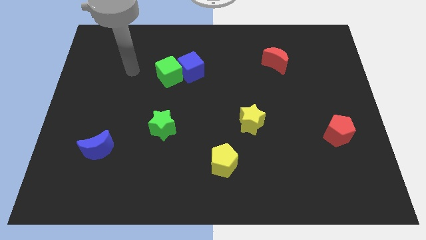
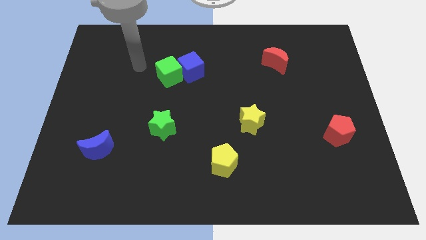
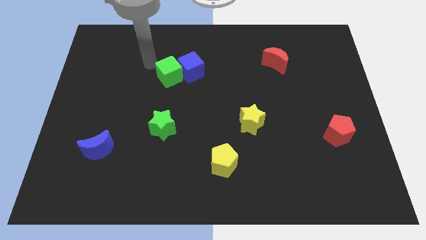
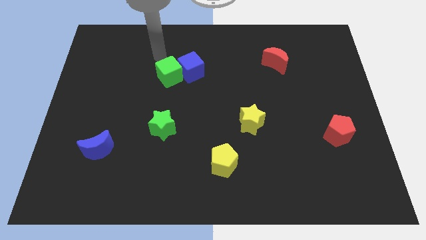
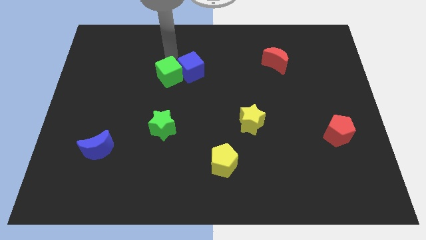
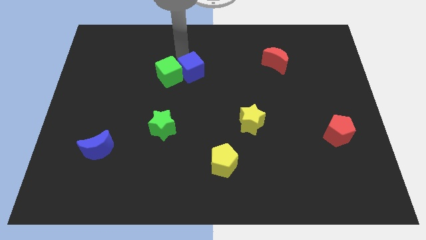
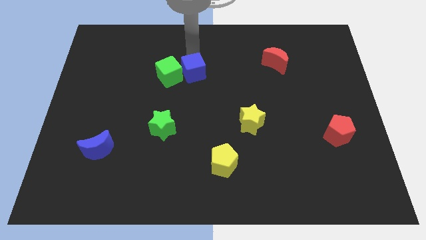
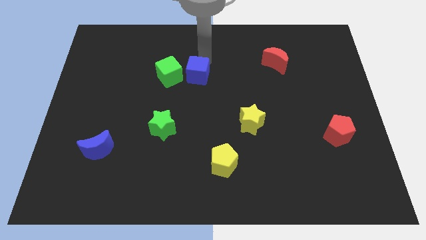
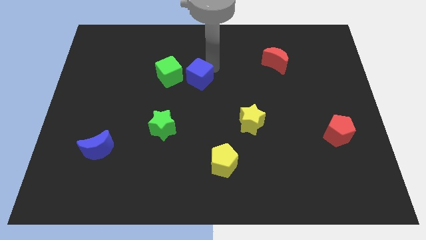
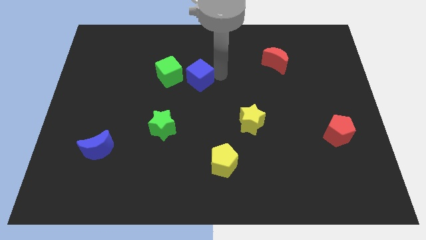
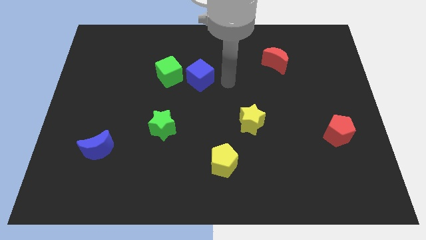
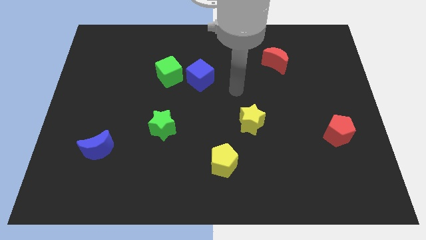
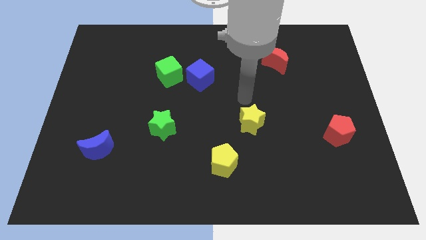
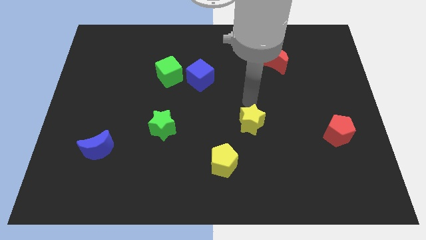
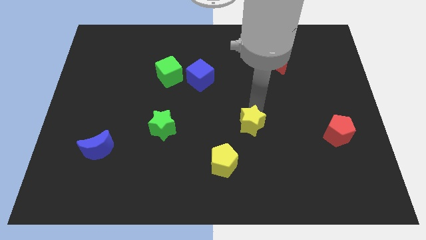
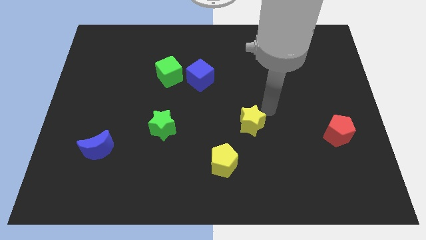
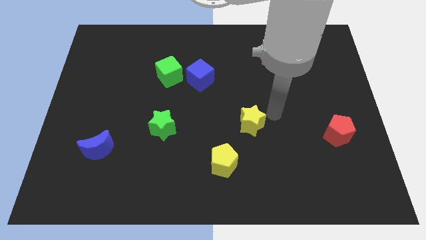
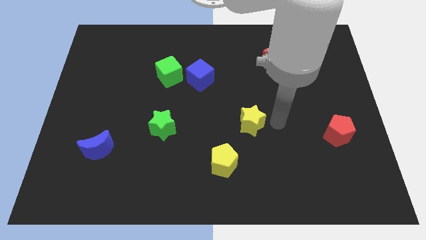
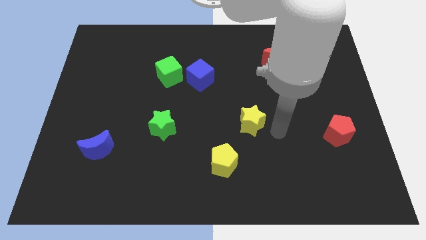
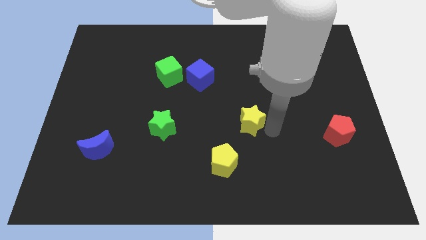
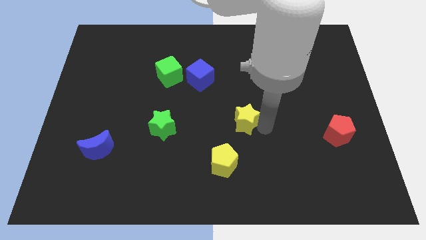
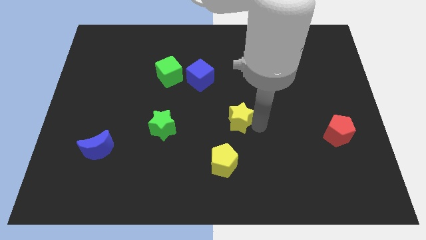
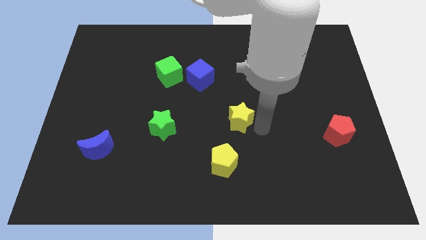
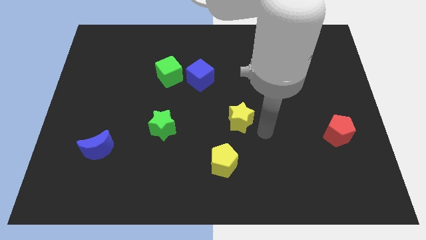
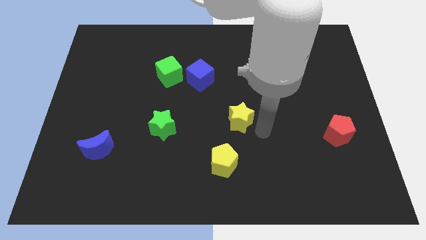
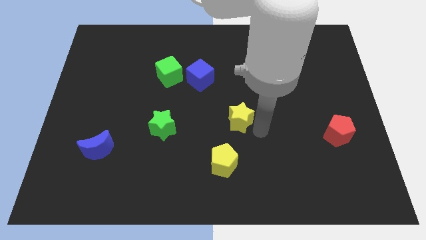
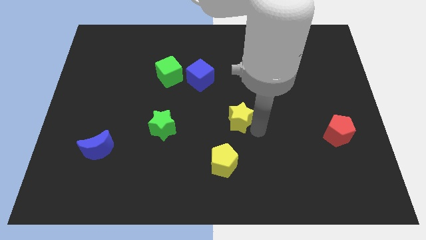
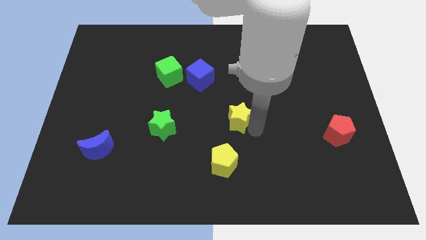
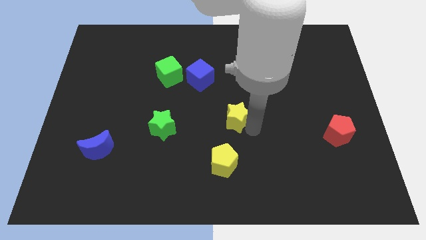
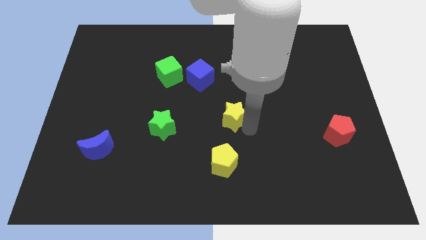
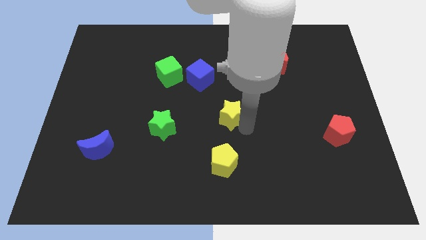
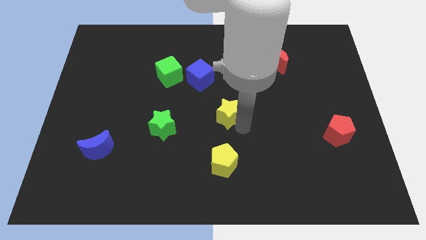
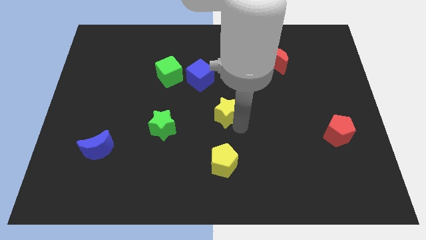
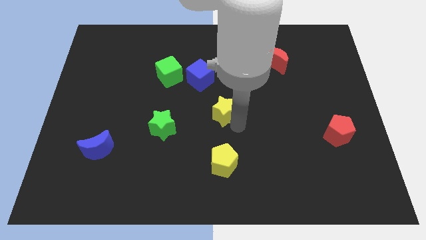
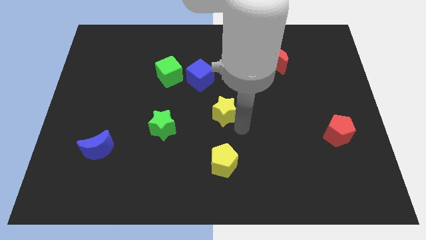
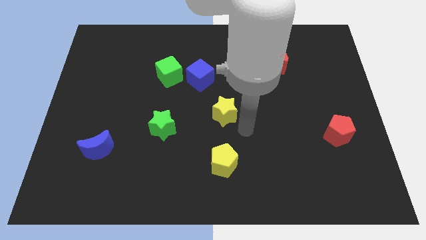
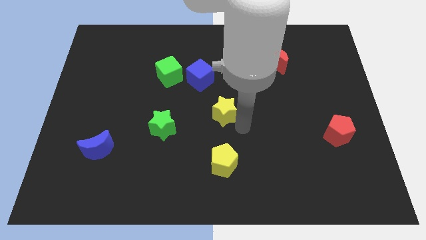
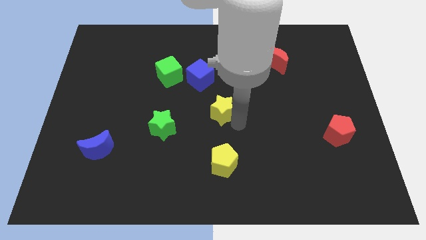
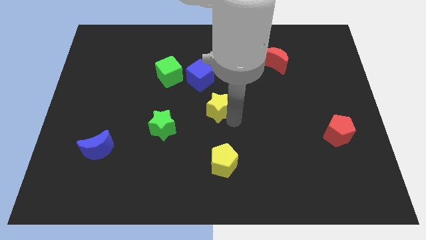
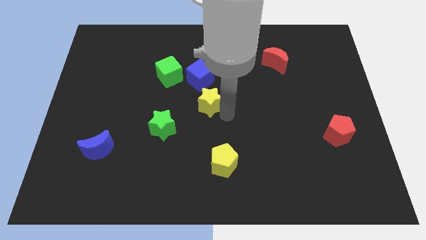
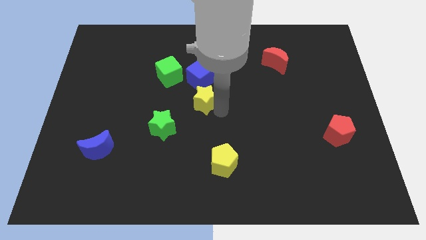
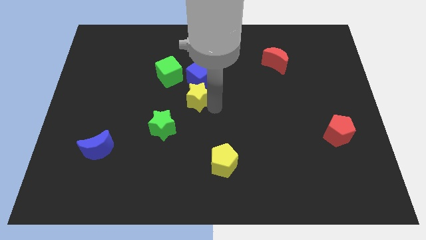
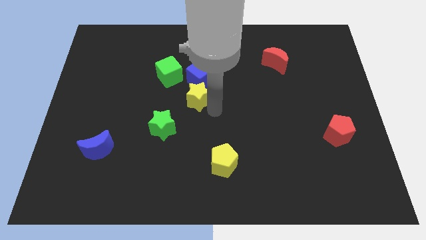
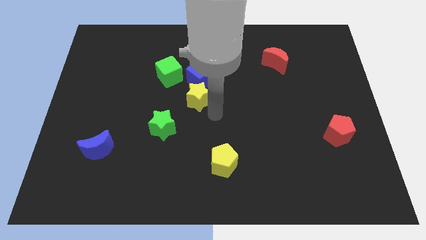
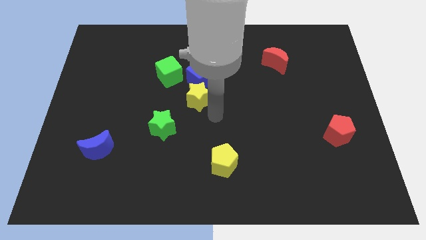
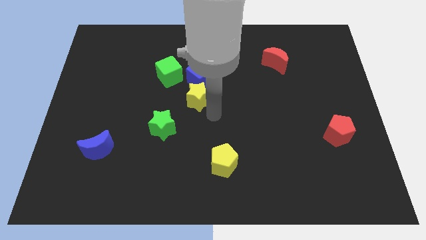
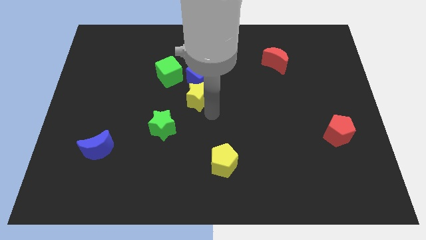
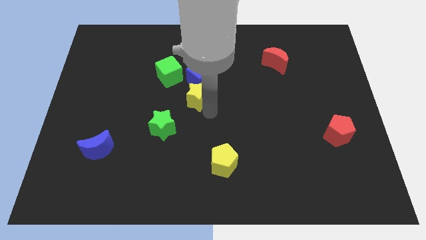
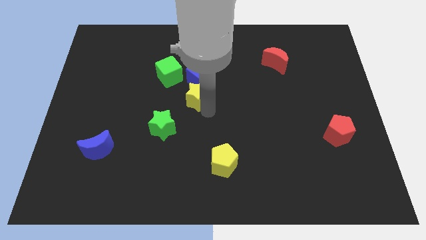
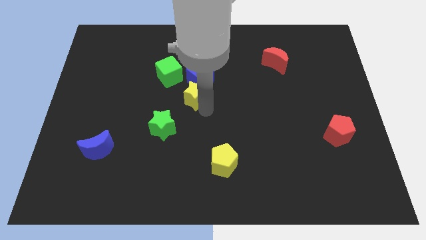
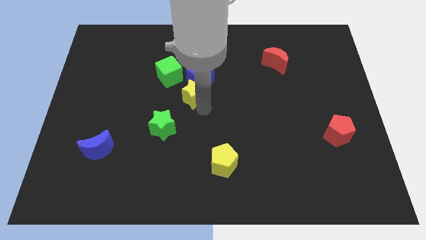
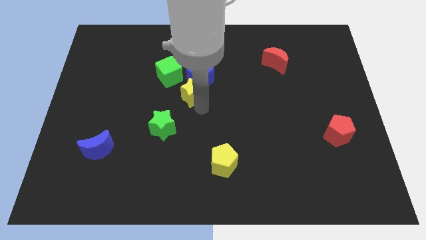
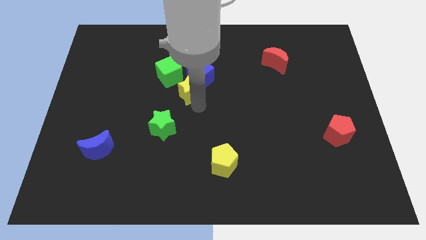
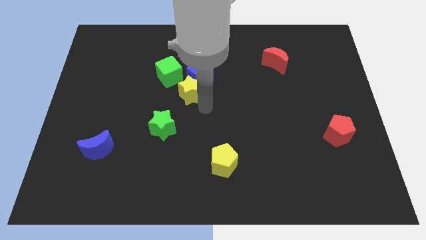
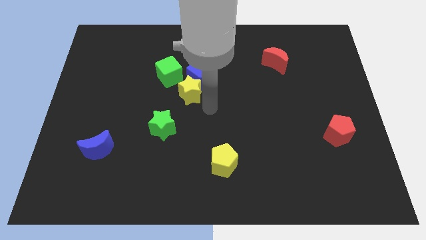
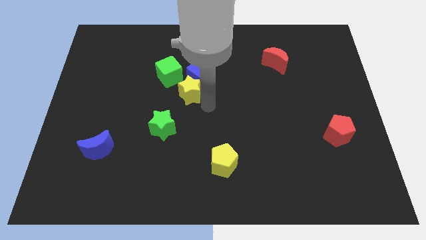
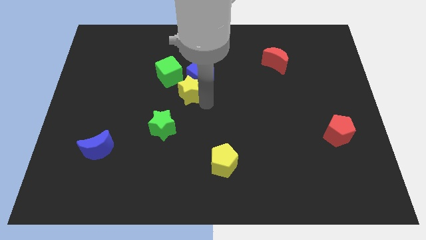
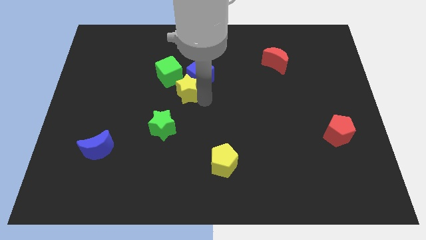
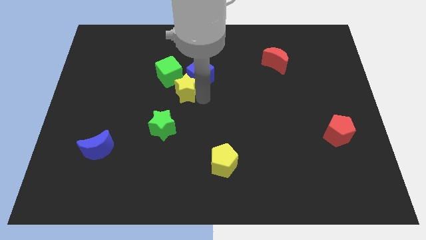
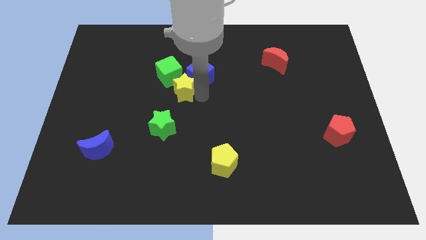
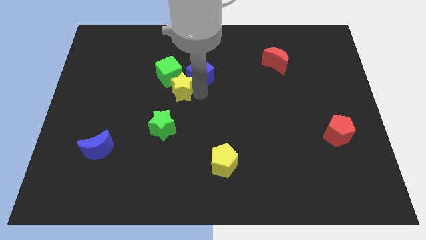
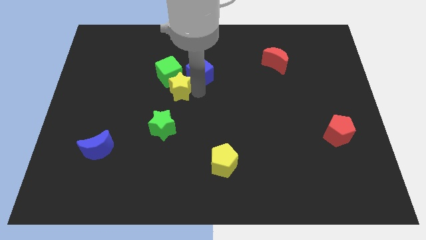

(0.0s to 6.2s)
push the yellow star towards the green cube
